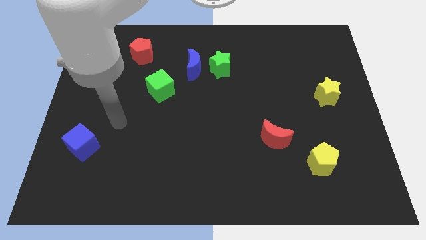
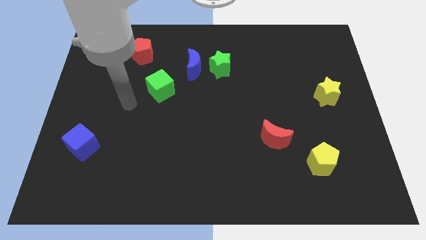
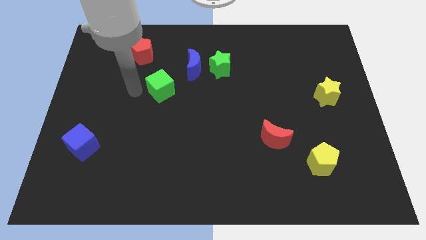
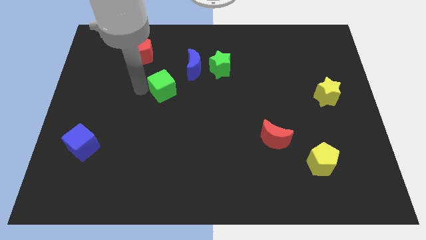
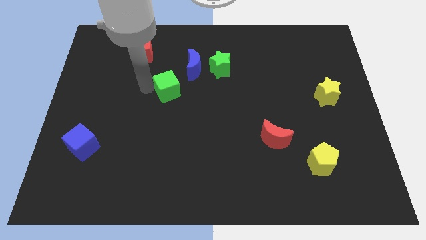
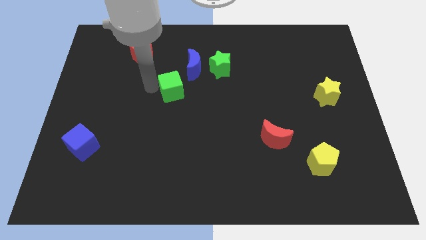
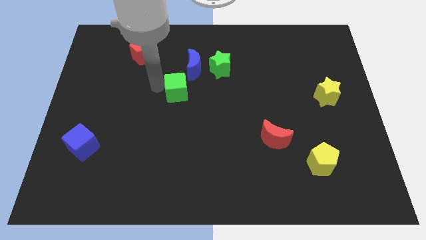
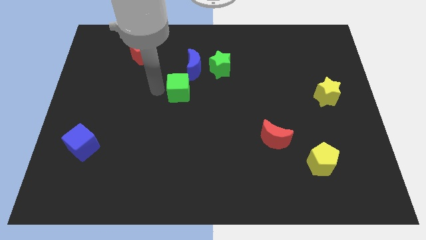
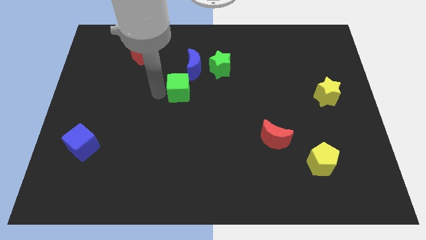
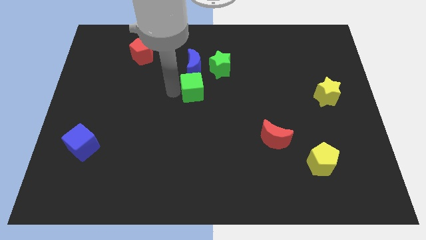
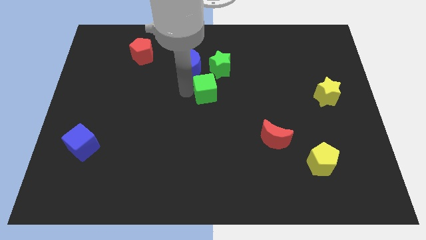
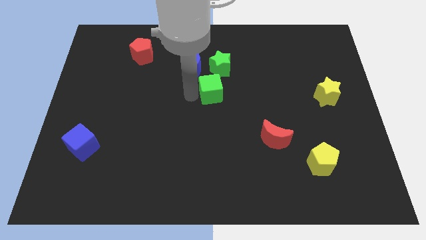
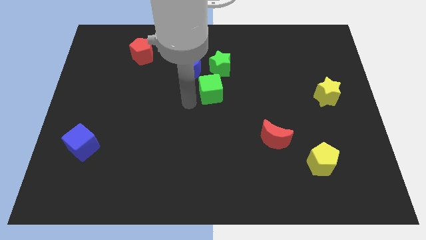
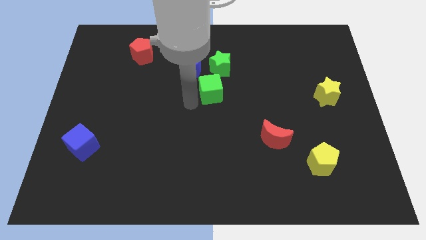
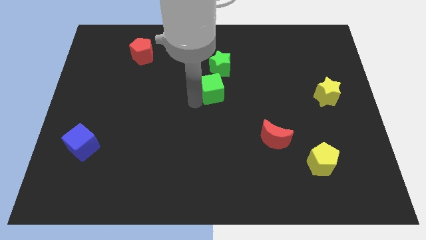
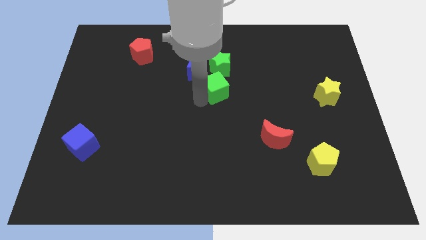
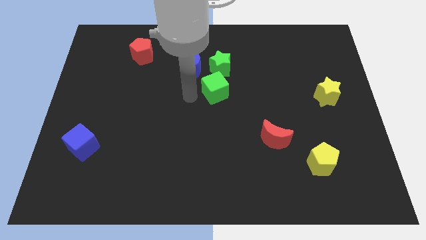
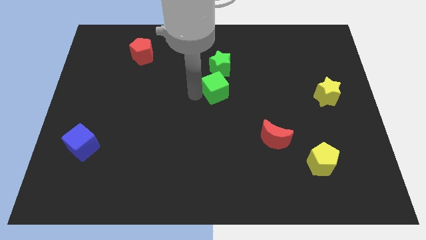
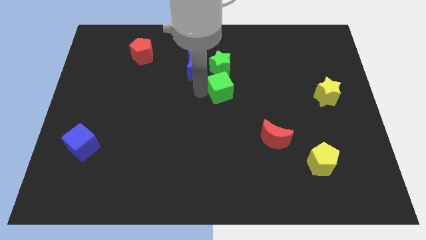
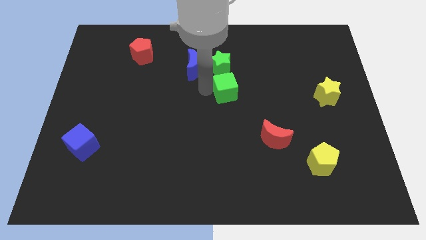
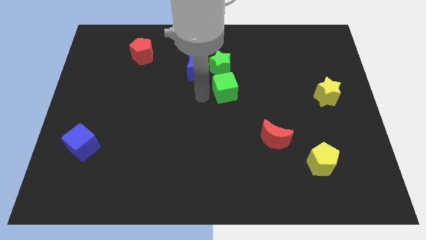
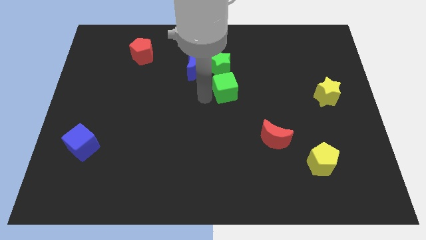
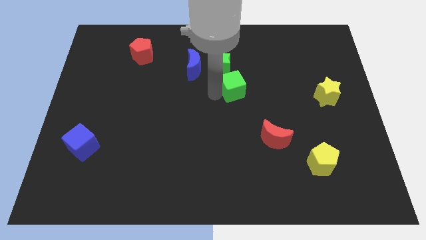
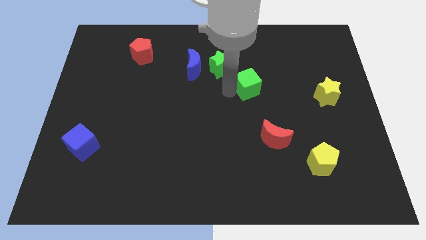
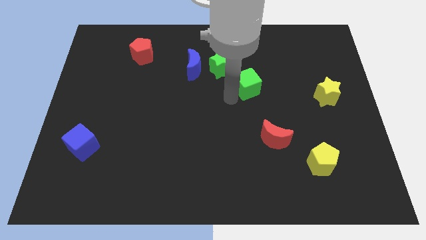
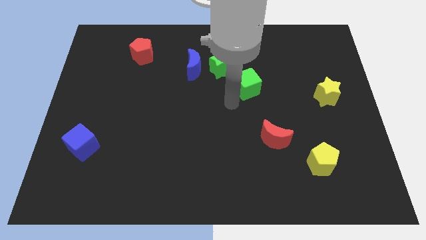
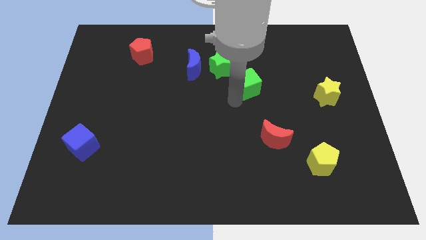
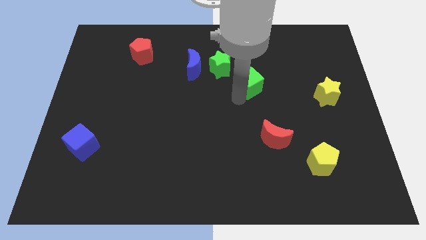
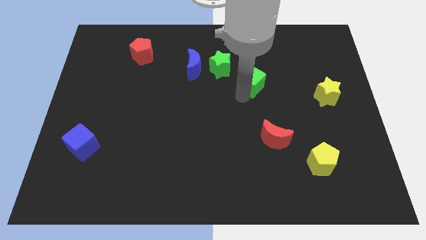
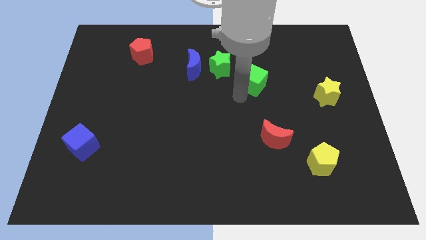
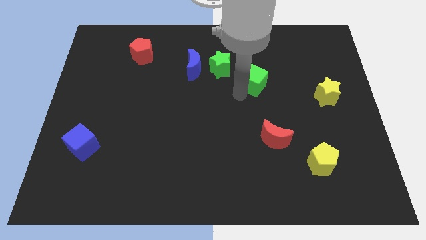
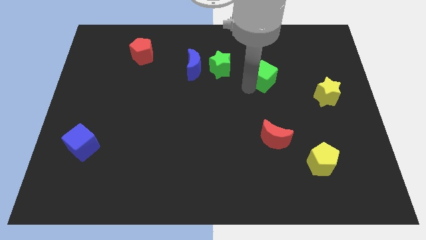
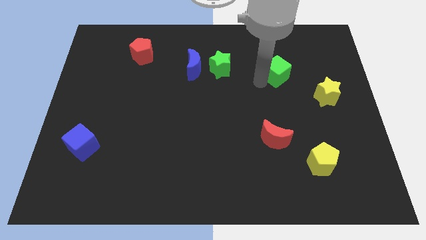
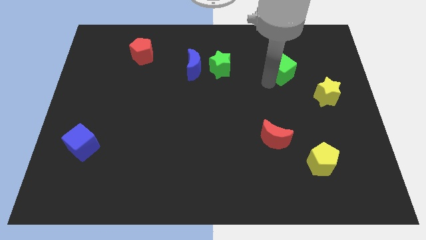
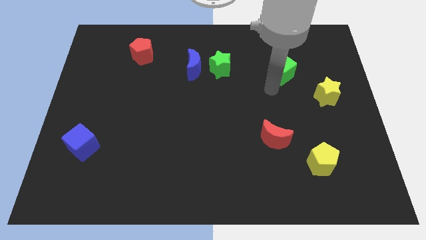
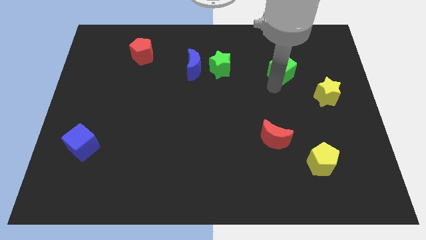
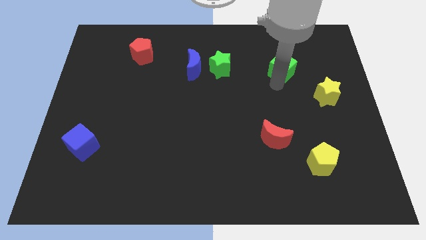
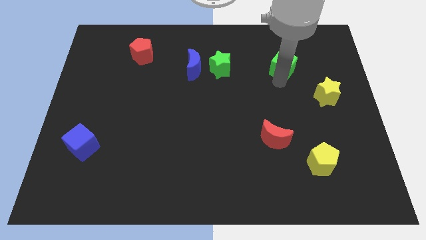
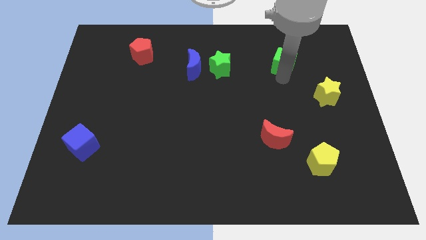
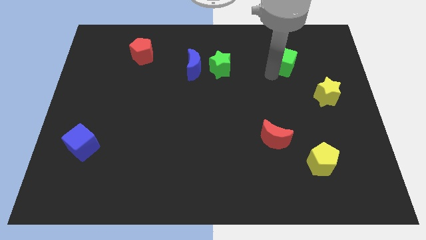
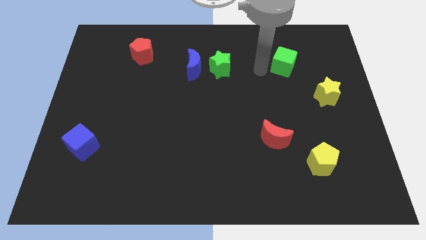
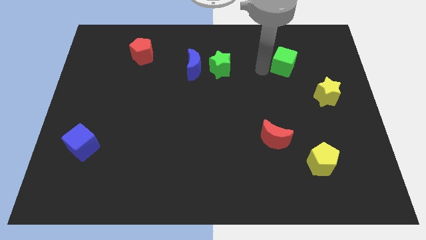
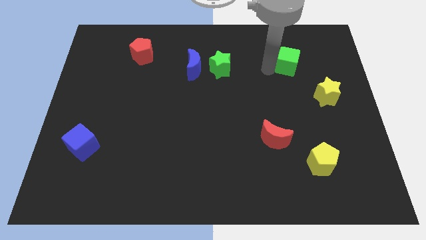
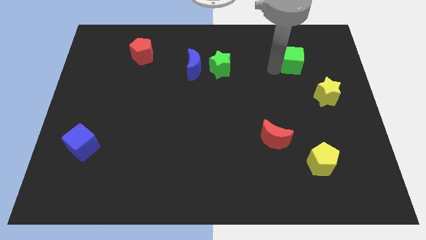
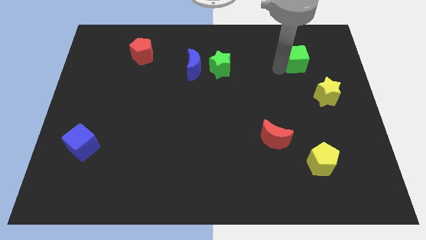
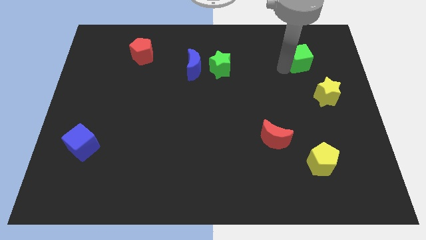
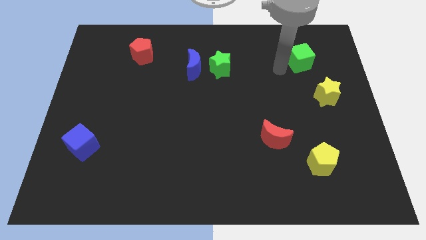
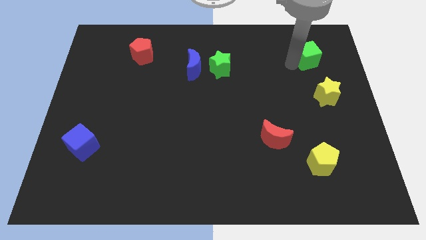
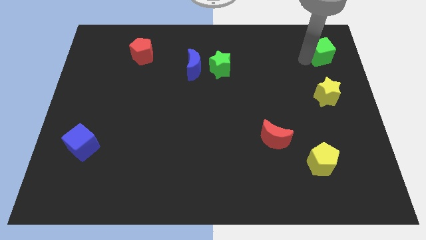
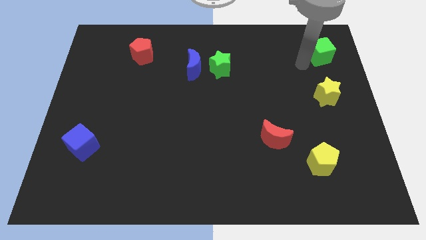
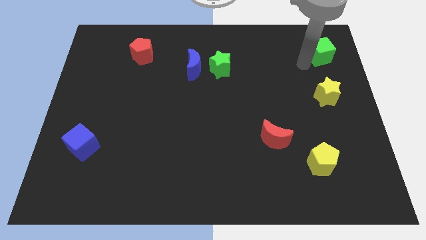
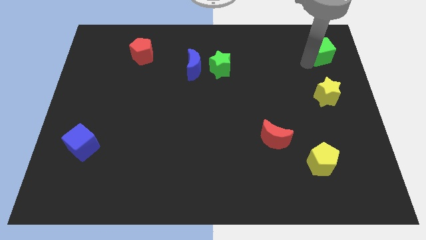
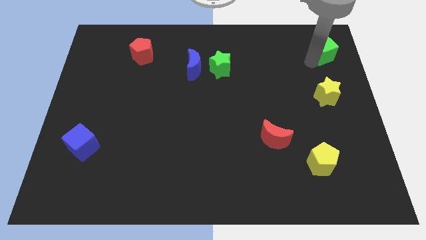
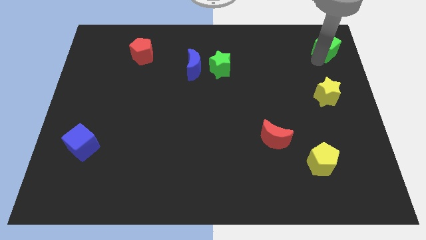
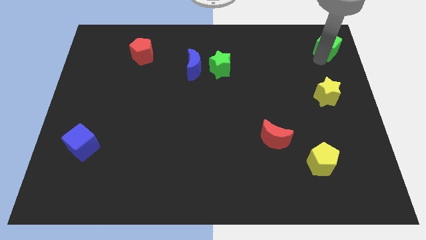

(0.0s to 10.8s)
slide the green cube to the top right of the board

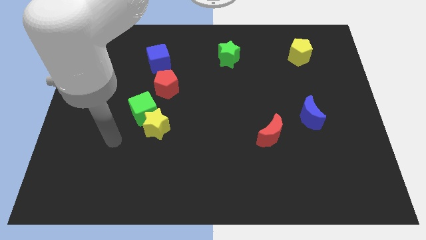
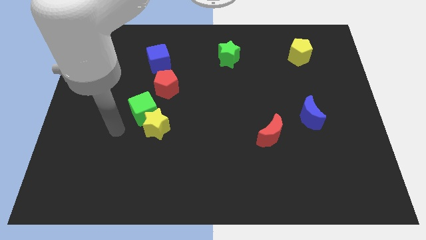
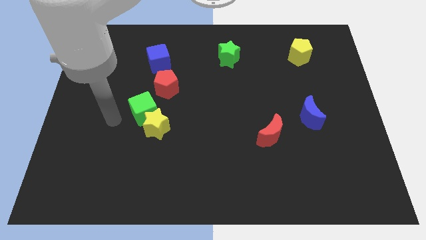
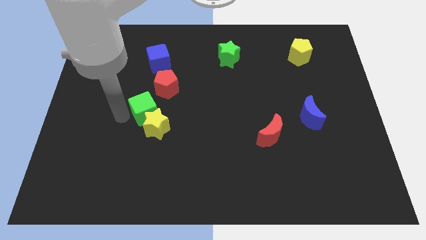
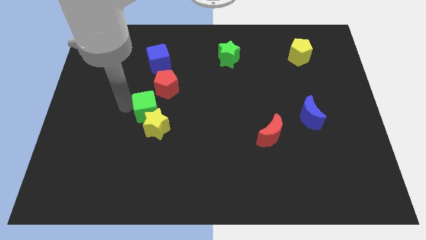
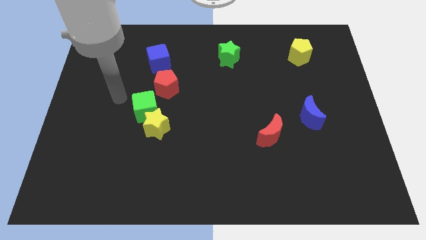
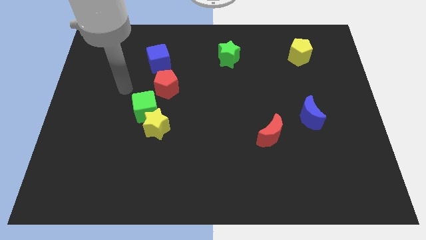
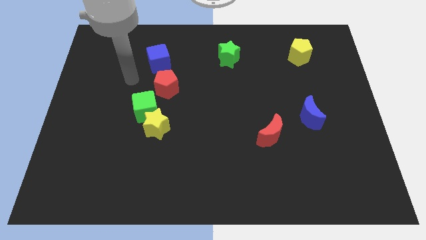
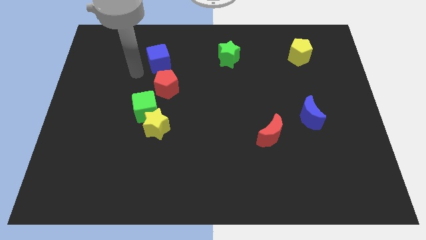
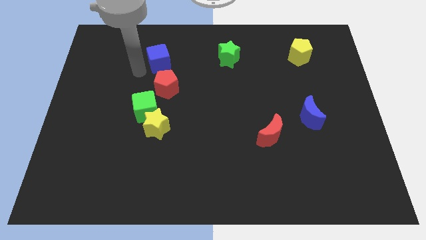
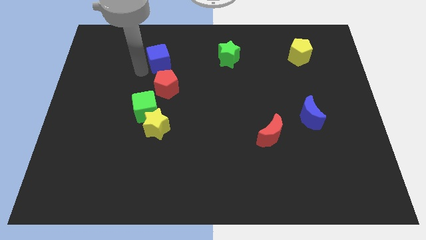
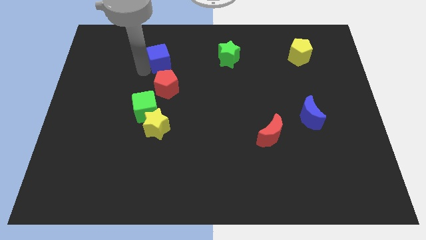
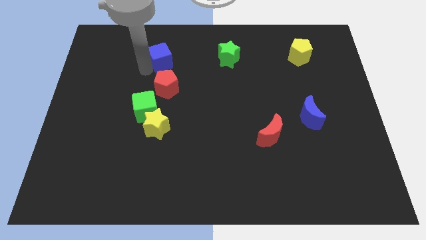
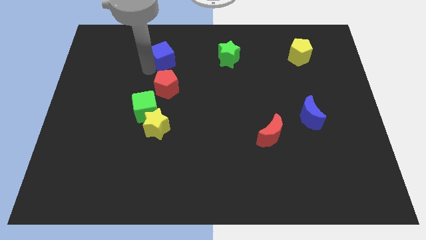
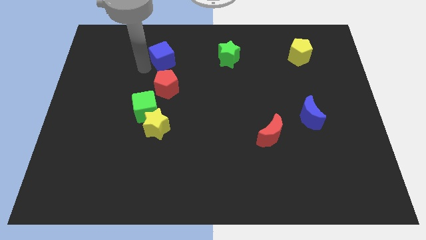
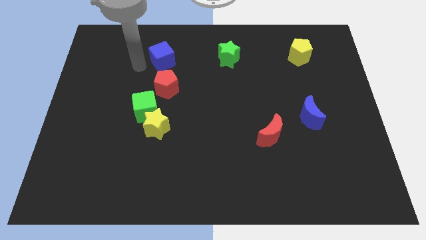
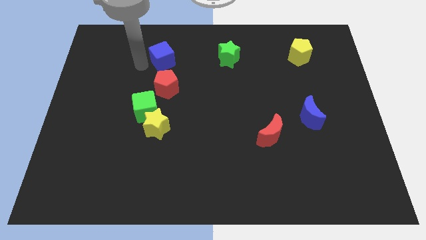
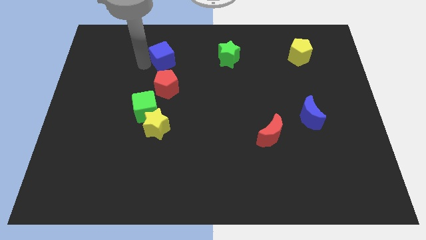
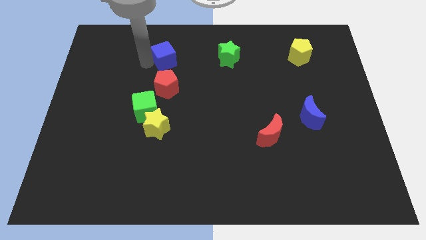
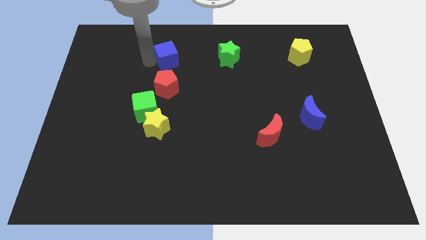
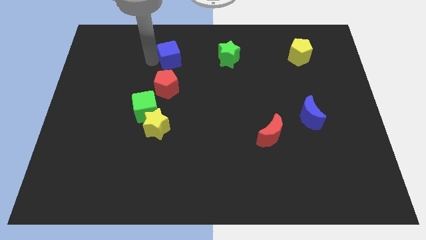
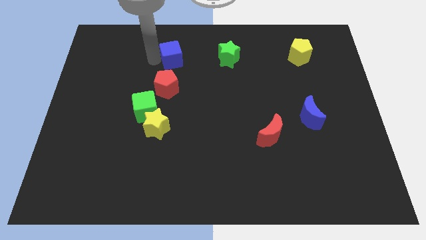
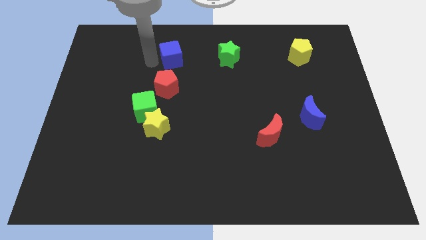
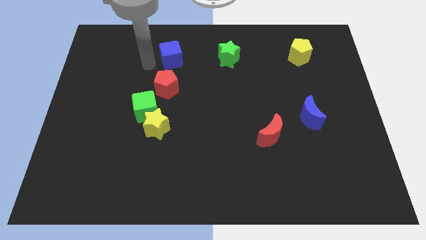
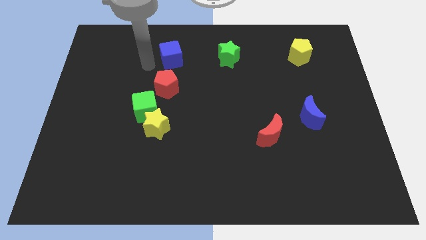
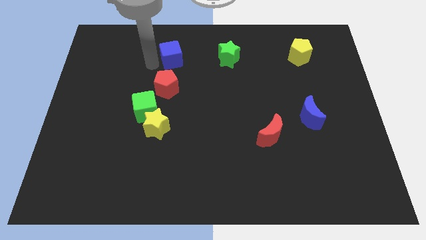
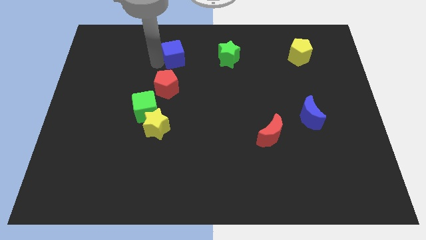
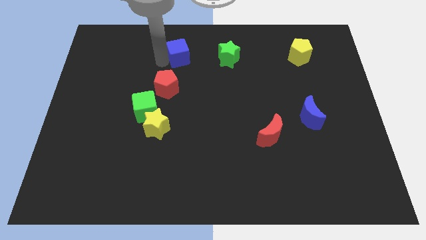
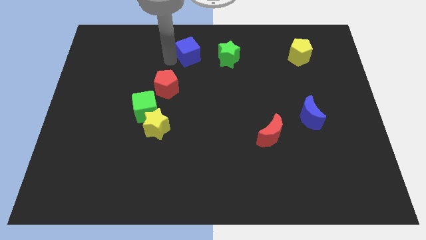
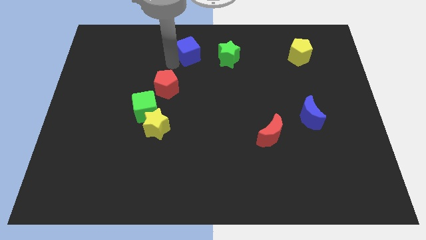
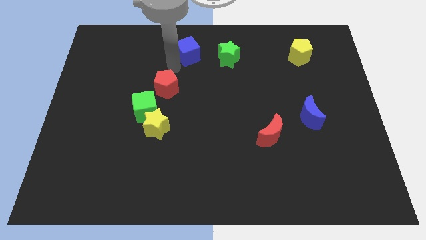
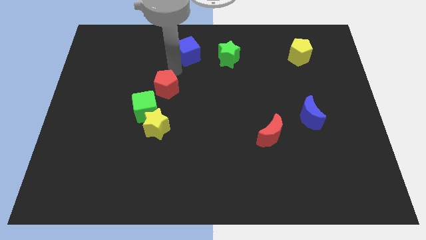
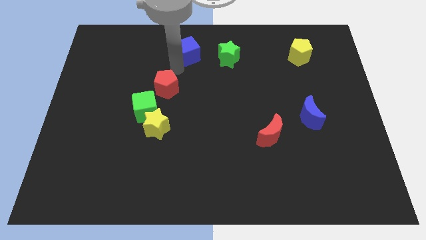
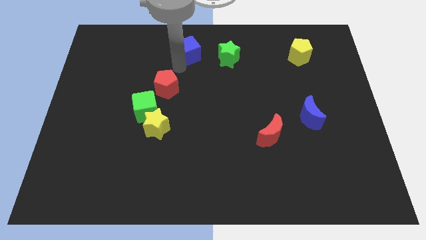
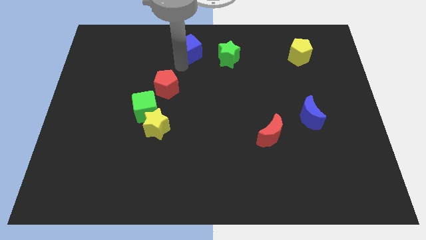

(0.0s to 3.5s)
put the blue cube to the towards your base
